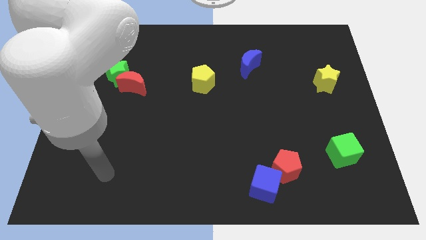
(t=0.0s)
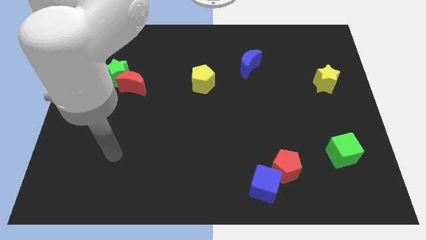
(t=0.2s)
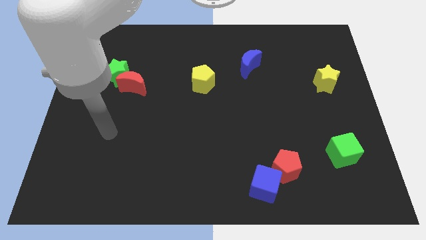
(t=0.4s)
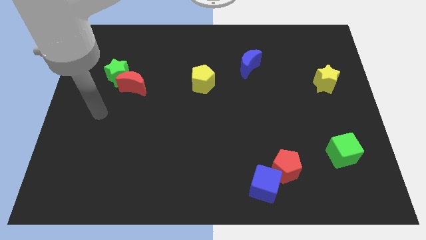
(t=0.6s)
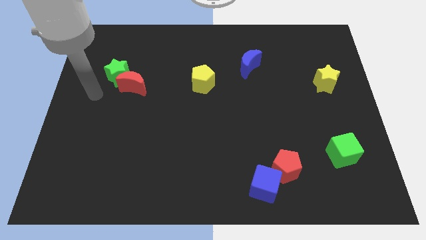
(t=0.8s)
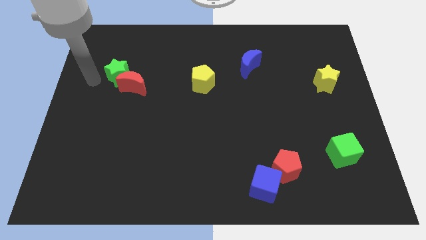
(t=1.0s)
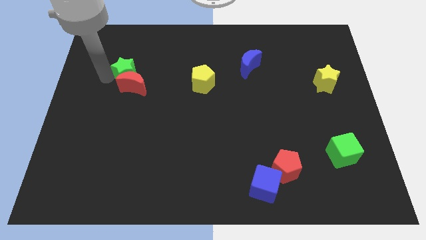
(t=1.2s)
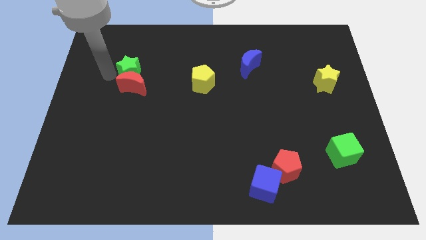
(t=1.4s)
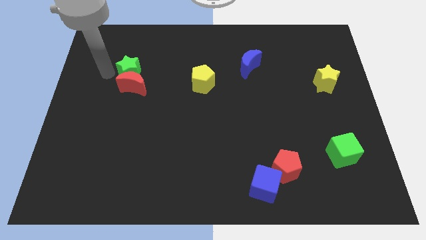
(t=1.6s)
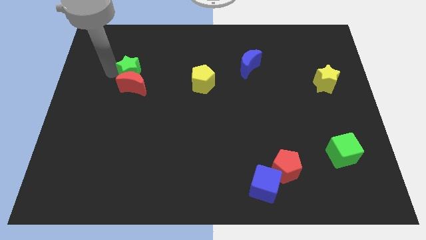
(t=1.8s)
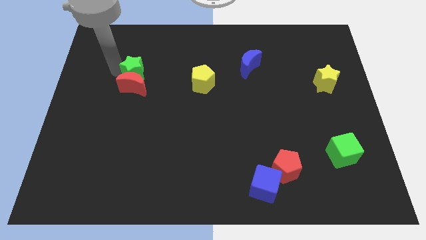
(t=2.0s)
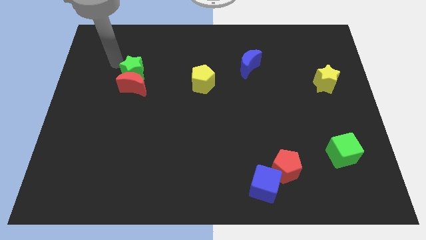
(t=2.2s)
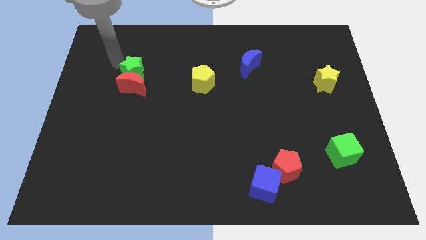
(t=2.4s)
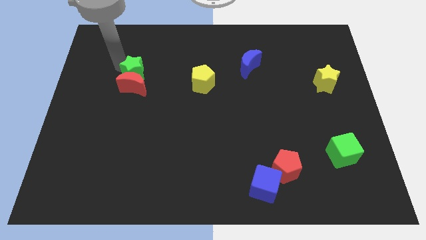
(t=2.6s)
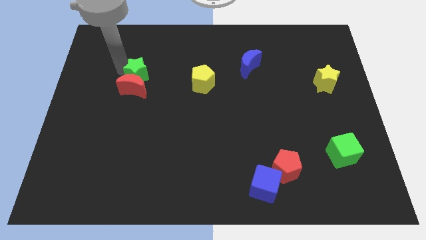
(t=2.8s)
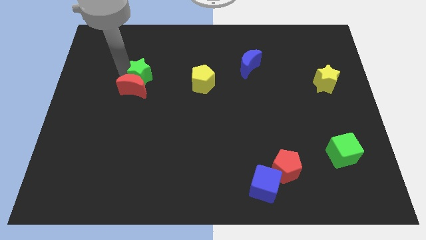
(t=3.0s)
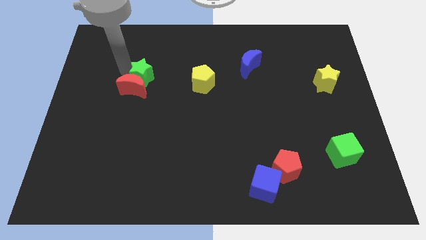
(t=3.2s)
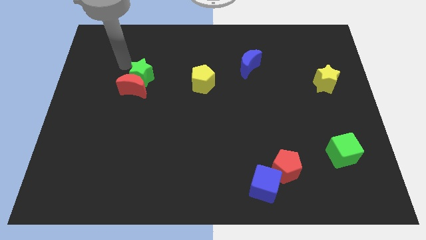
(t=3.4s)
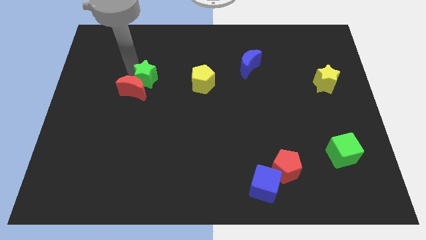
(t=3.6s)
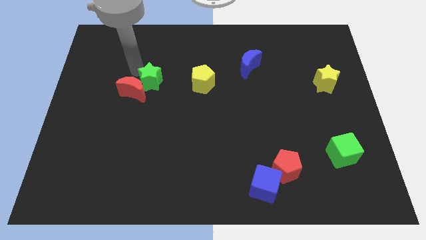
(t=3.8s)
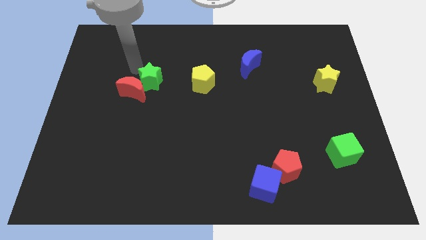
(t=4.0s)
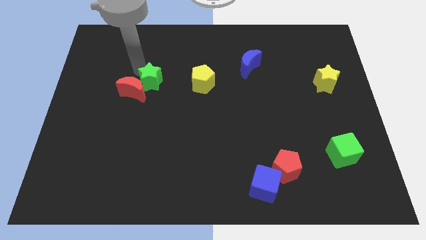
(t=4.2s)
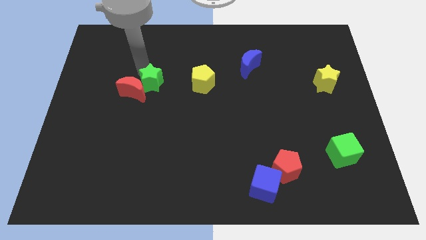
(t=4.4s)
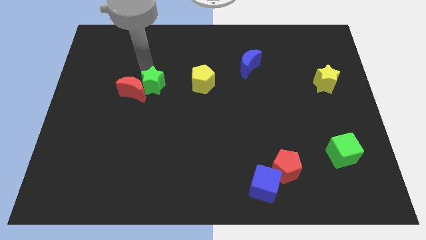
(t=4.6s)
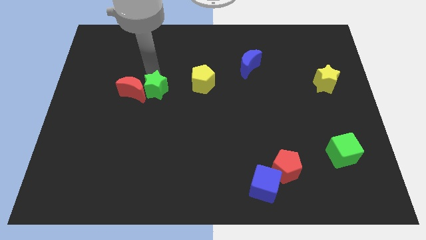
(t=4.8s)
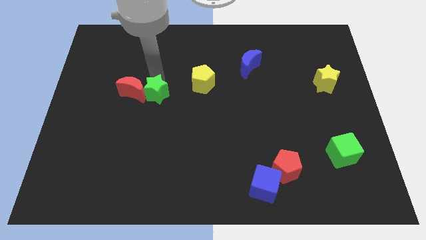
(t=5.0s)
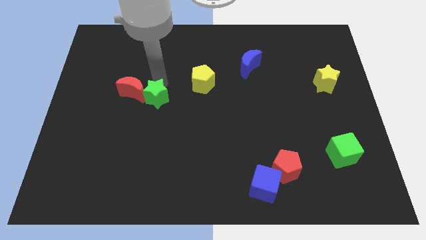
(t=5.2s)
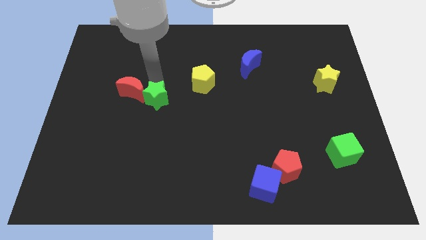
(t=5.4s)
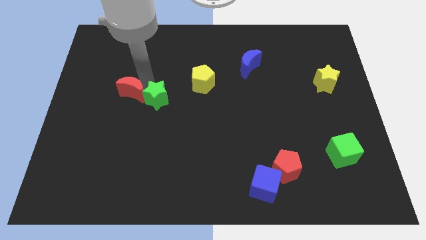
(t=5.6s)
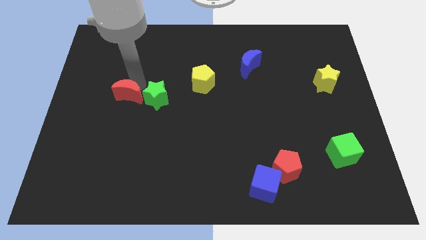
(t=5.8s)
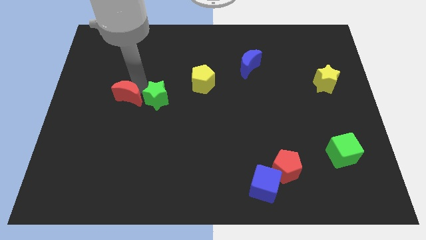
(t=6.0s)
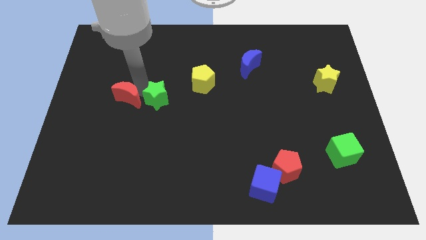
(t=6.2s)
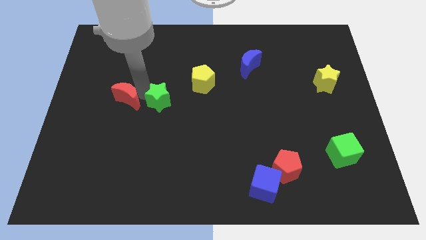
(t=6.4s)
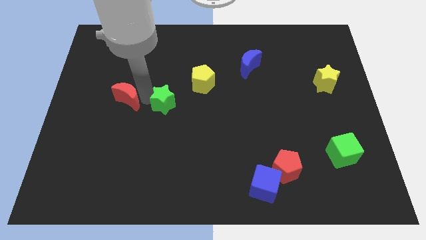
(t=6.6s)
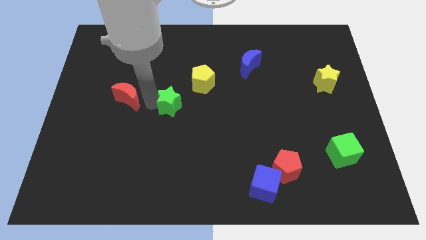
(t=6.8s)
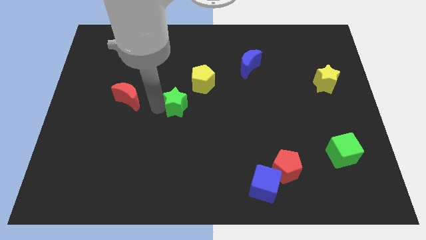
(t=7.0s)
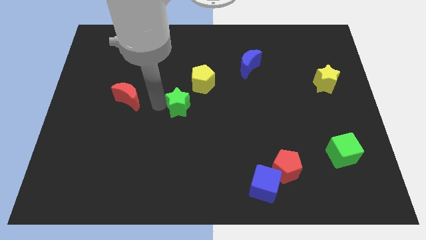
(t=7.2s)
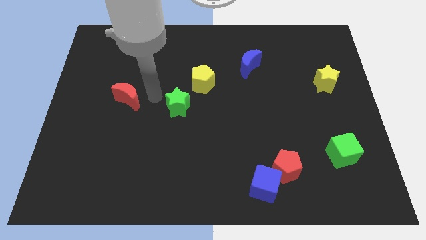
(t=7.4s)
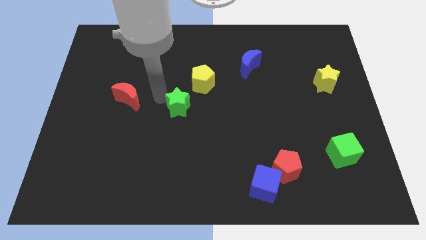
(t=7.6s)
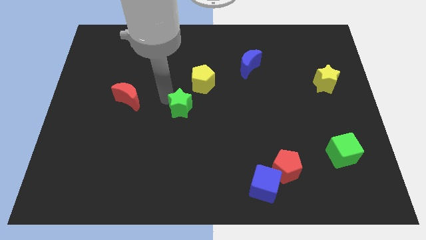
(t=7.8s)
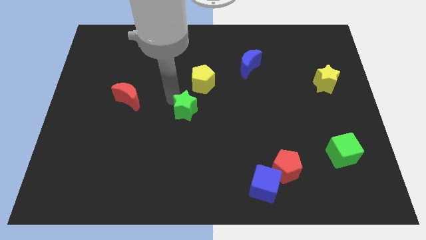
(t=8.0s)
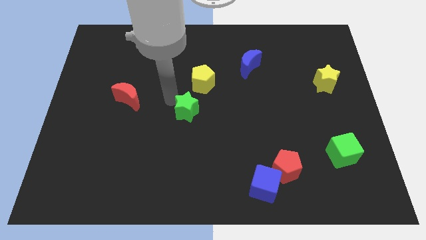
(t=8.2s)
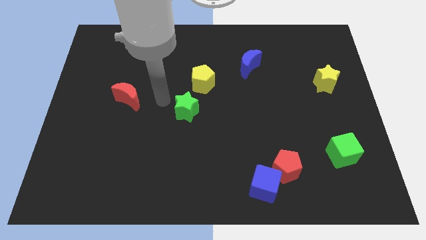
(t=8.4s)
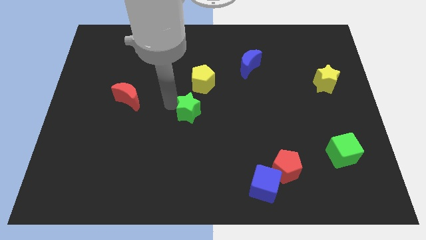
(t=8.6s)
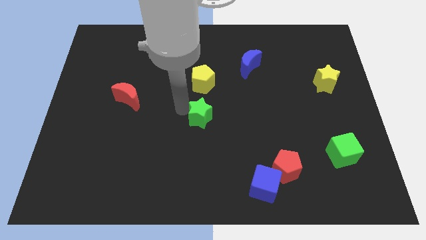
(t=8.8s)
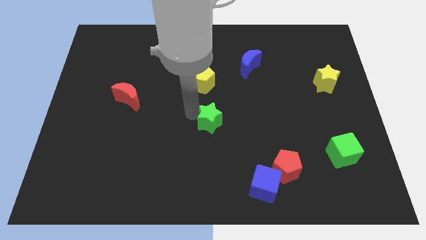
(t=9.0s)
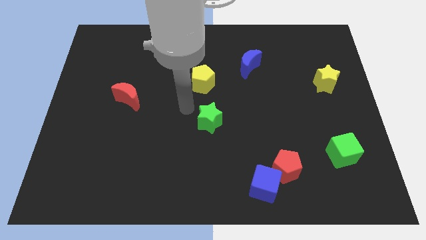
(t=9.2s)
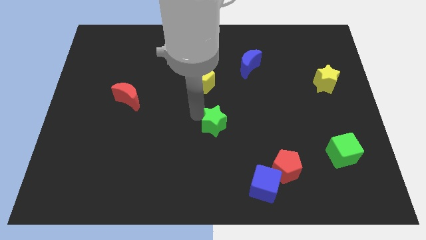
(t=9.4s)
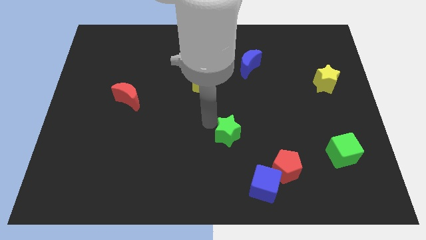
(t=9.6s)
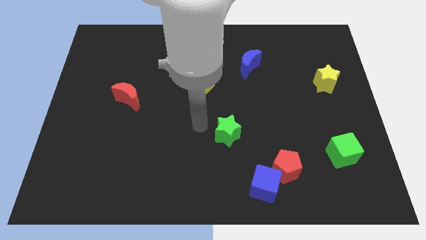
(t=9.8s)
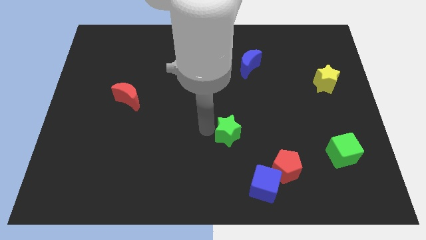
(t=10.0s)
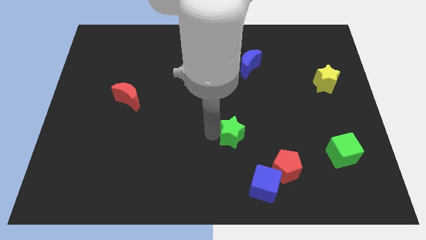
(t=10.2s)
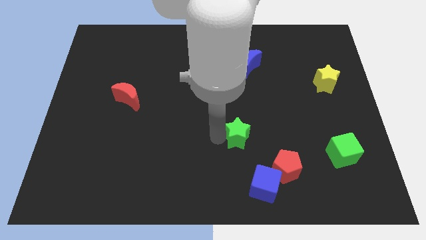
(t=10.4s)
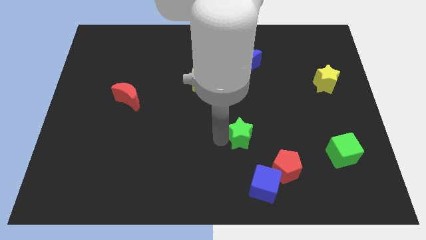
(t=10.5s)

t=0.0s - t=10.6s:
move the green star to the top side of the blue cube

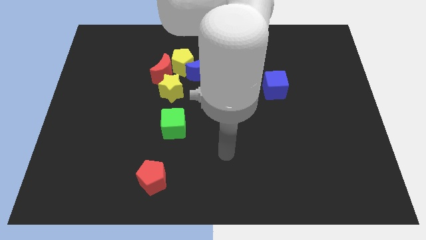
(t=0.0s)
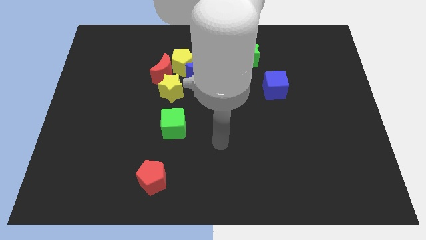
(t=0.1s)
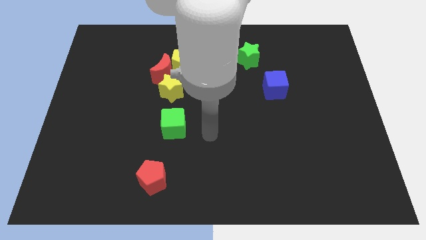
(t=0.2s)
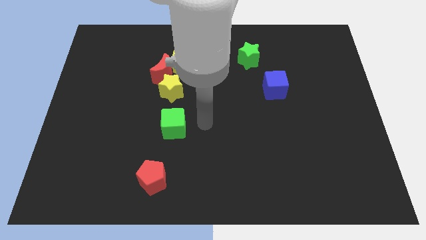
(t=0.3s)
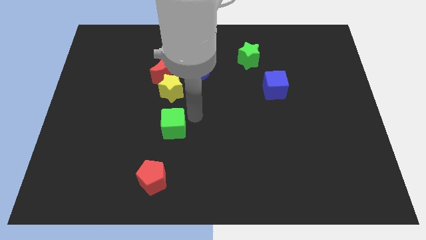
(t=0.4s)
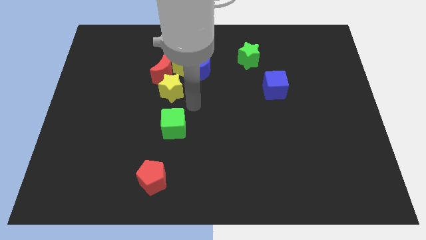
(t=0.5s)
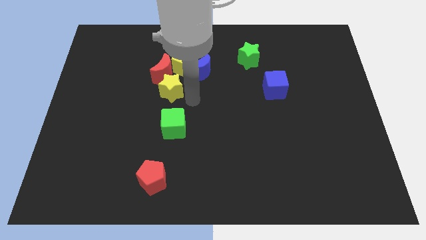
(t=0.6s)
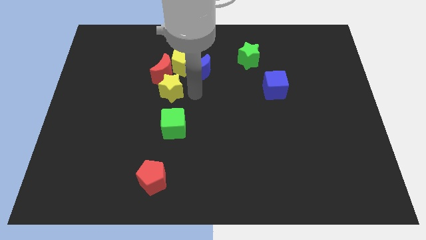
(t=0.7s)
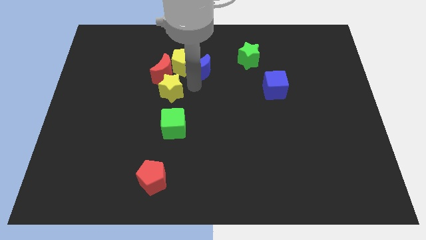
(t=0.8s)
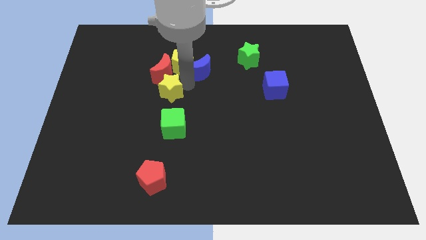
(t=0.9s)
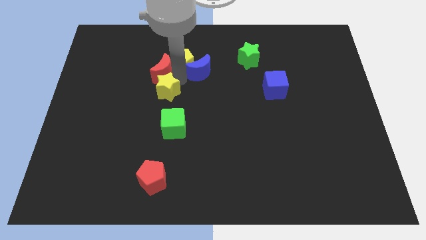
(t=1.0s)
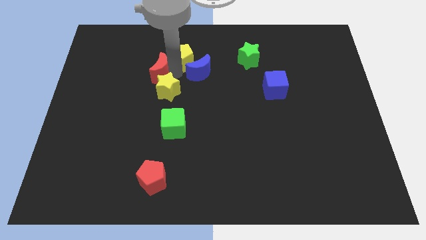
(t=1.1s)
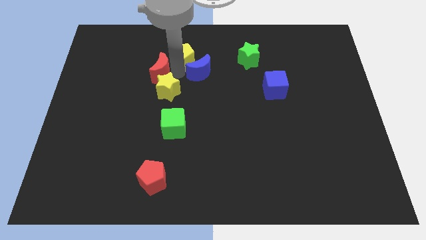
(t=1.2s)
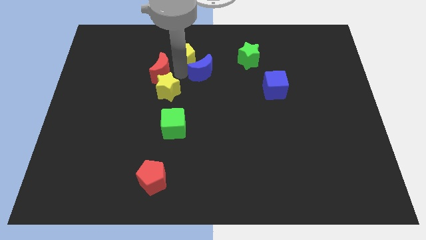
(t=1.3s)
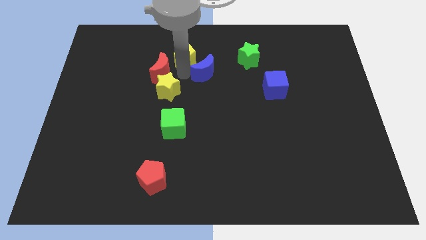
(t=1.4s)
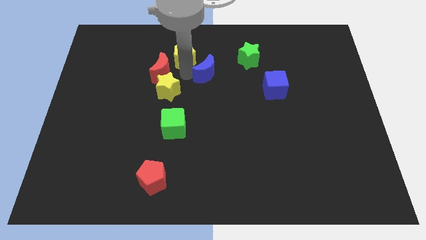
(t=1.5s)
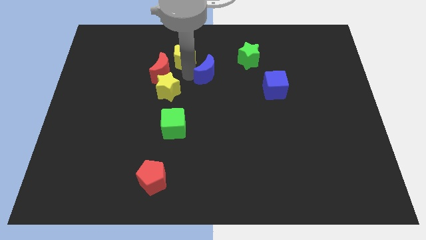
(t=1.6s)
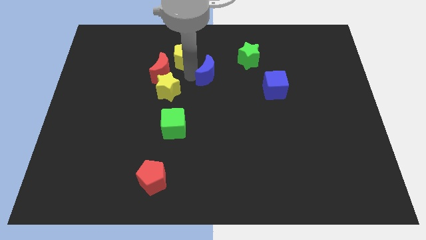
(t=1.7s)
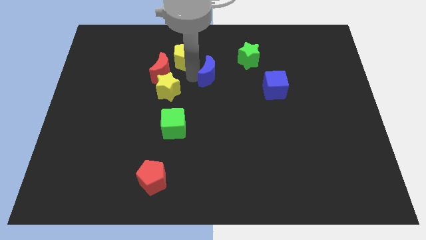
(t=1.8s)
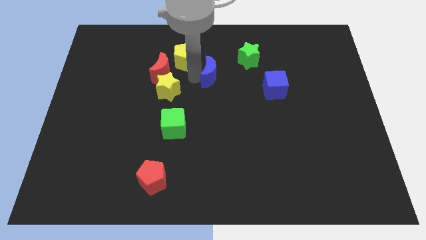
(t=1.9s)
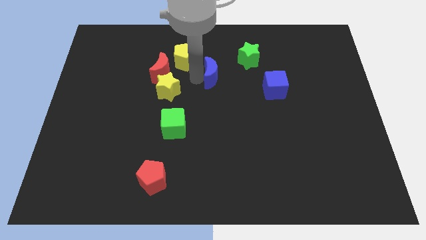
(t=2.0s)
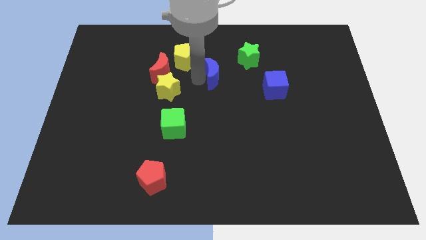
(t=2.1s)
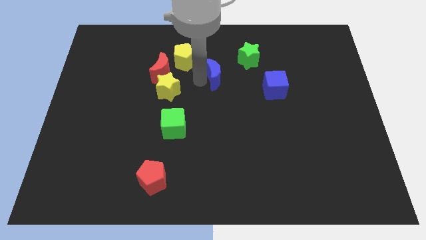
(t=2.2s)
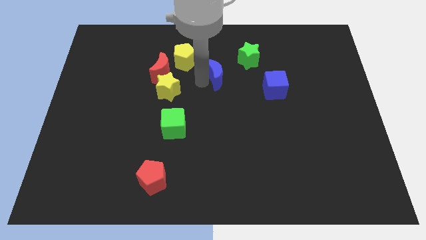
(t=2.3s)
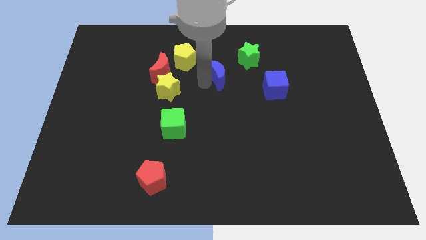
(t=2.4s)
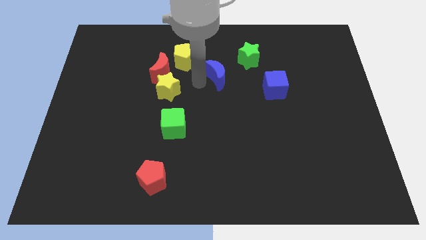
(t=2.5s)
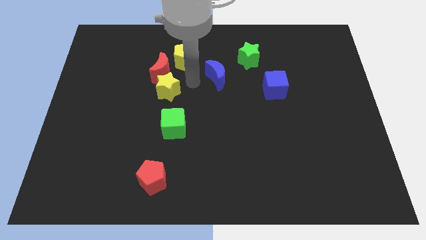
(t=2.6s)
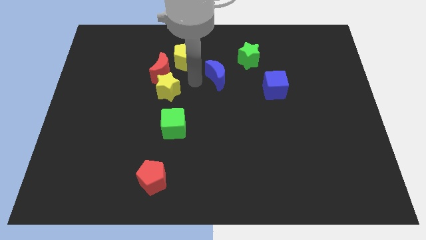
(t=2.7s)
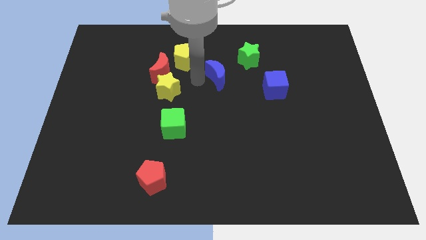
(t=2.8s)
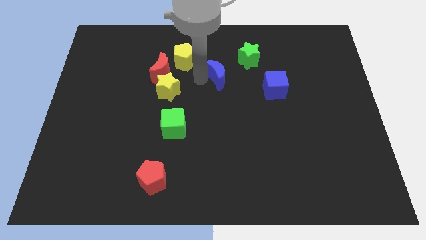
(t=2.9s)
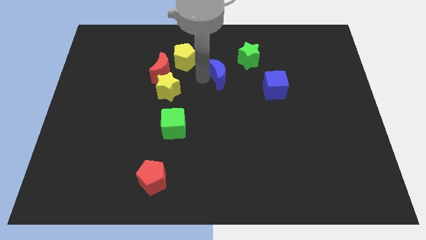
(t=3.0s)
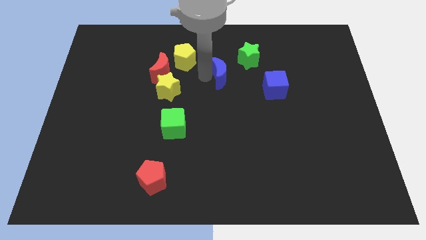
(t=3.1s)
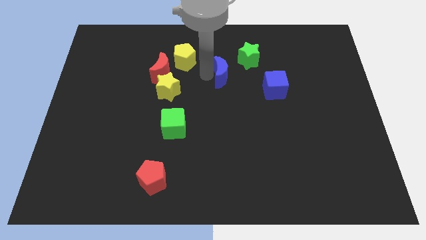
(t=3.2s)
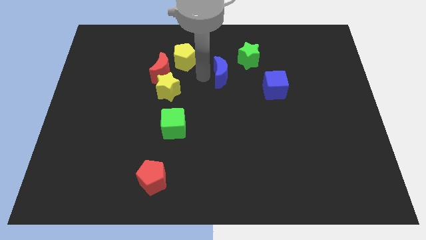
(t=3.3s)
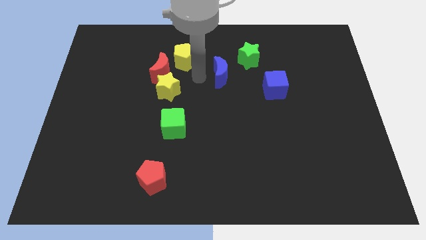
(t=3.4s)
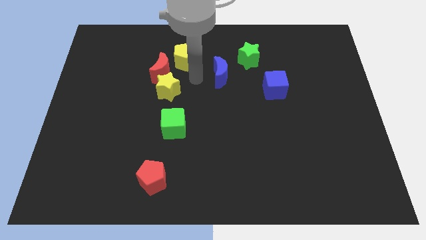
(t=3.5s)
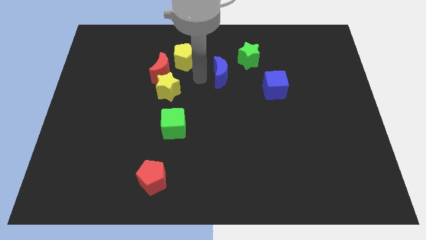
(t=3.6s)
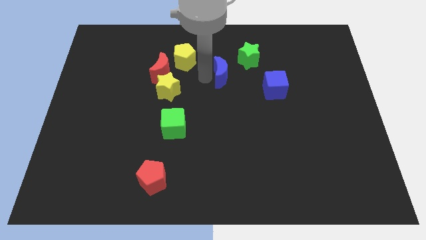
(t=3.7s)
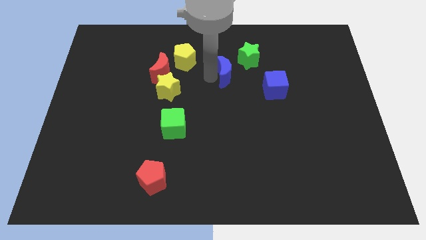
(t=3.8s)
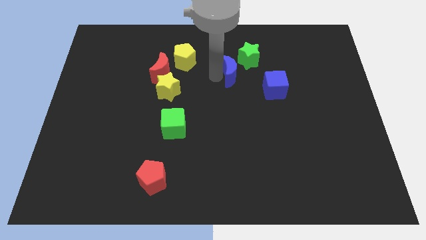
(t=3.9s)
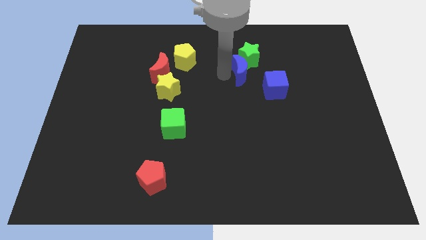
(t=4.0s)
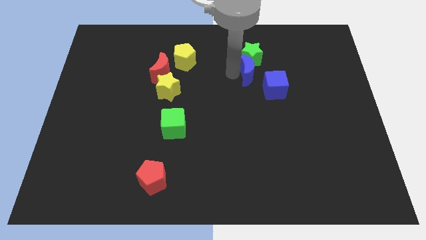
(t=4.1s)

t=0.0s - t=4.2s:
push the blue moon diagonally down and to the right of the green star
